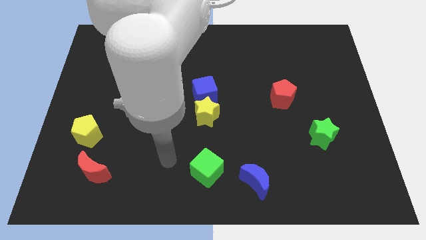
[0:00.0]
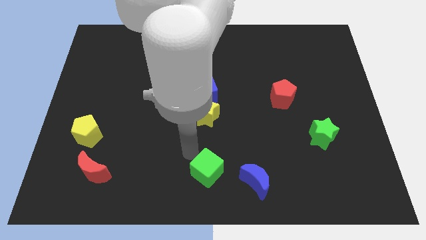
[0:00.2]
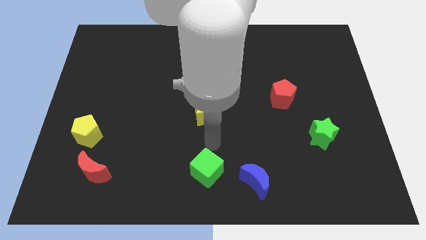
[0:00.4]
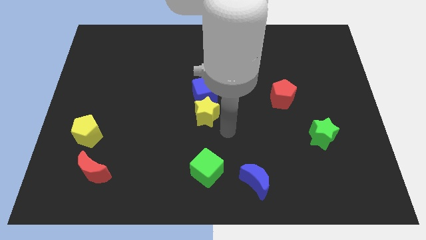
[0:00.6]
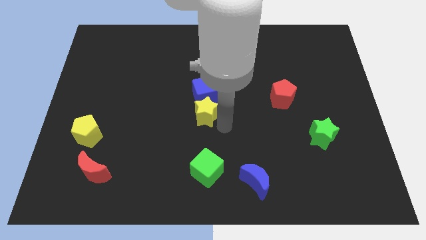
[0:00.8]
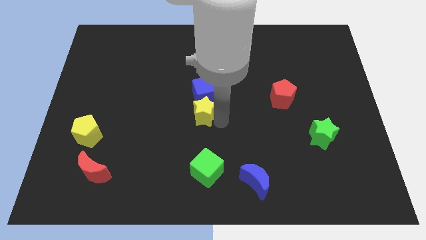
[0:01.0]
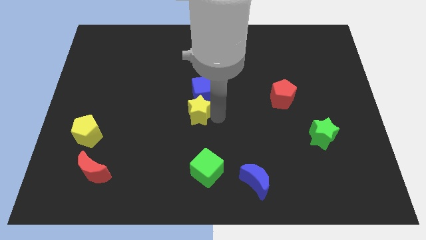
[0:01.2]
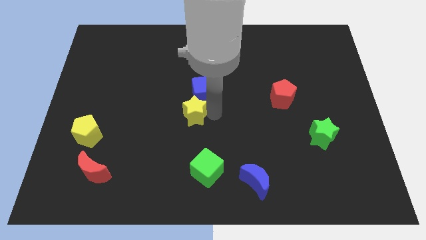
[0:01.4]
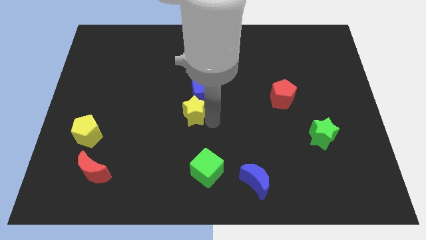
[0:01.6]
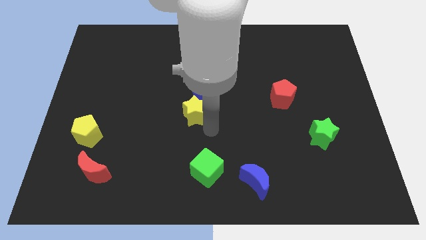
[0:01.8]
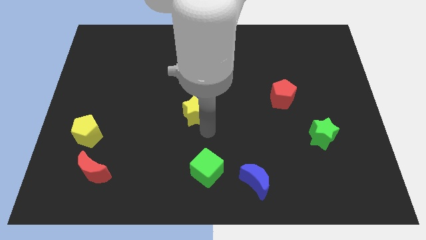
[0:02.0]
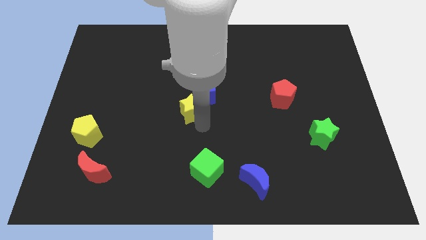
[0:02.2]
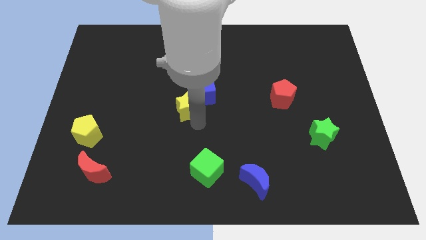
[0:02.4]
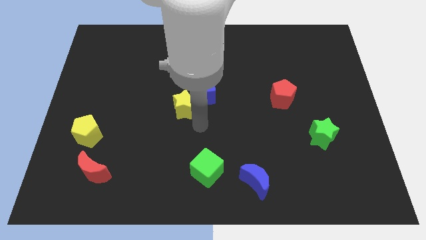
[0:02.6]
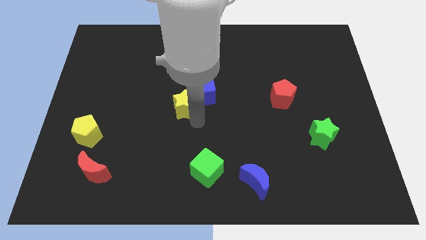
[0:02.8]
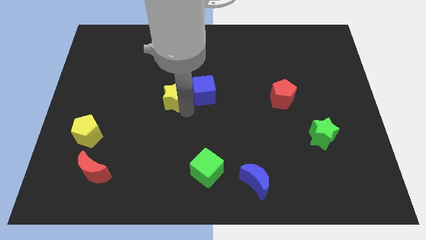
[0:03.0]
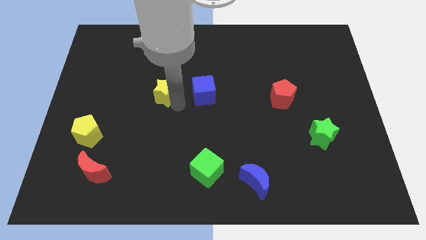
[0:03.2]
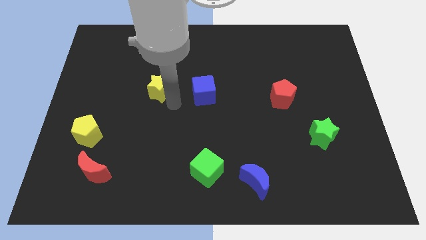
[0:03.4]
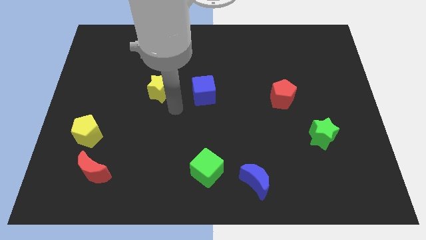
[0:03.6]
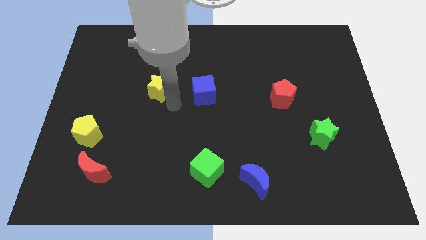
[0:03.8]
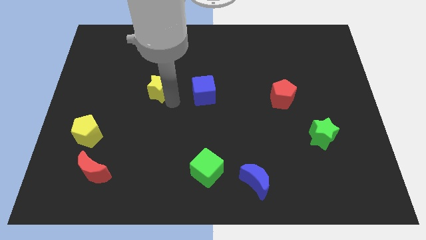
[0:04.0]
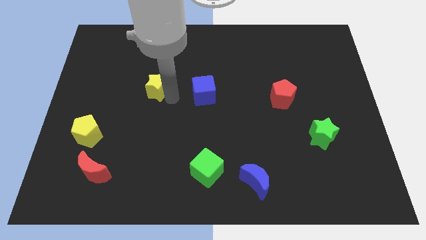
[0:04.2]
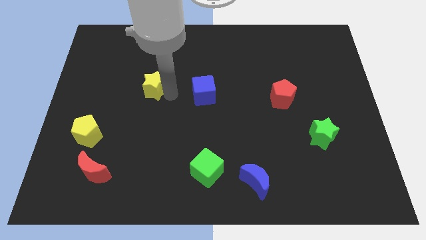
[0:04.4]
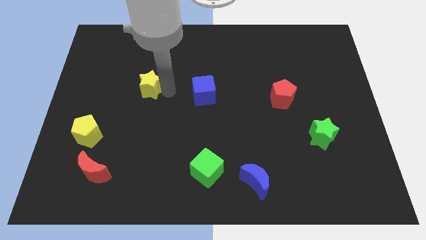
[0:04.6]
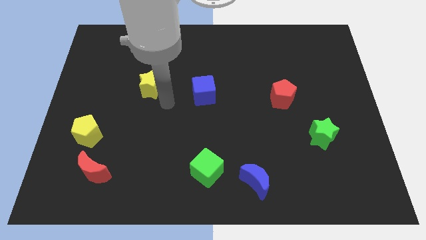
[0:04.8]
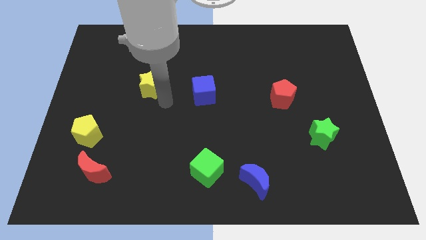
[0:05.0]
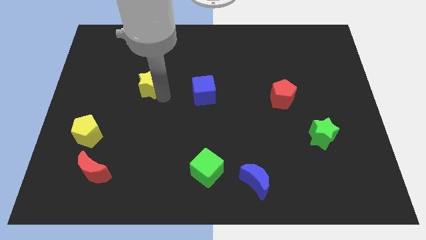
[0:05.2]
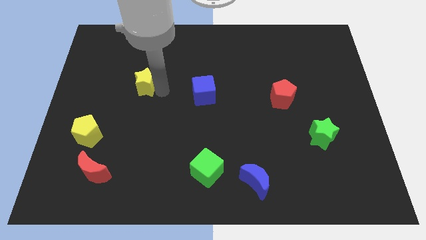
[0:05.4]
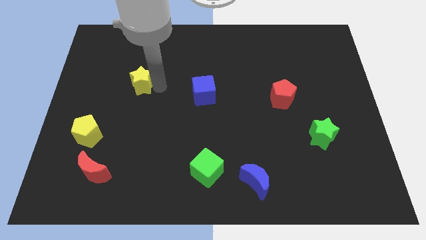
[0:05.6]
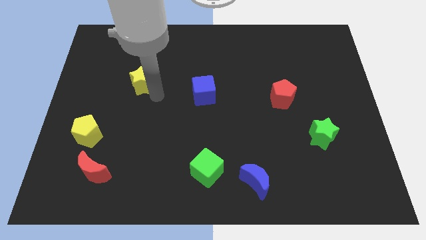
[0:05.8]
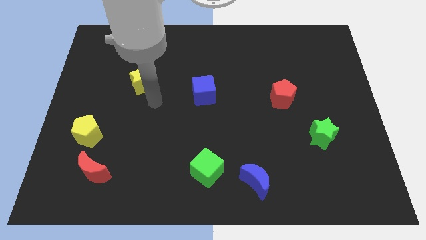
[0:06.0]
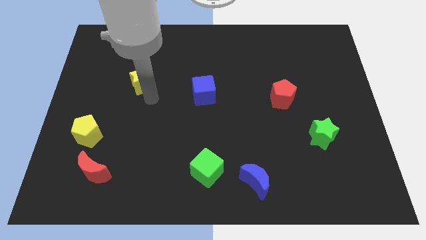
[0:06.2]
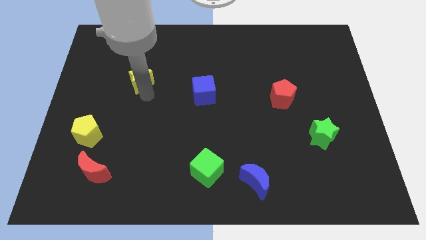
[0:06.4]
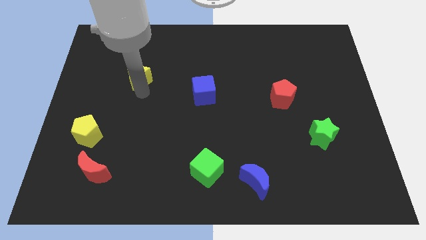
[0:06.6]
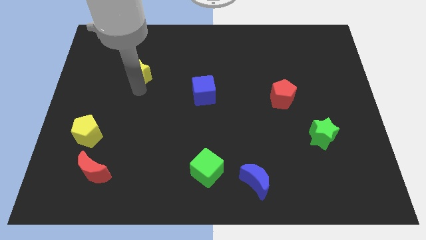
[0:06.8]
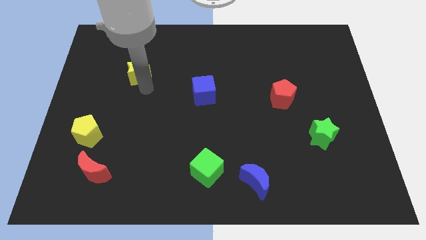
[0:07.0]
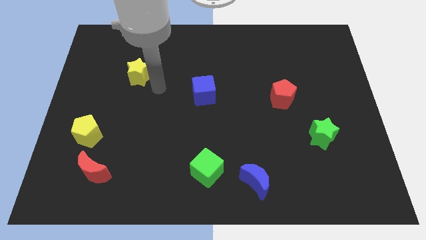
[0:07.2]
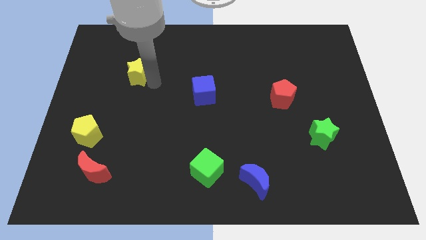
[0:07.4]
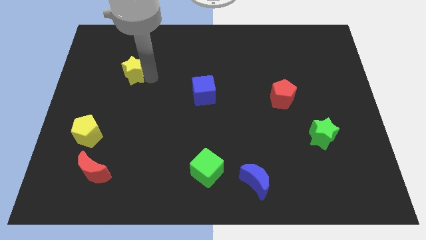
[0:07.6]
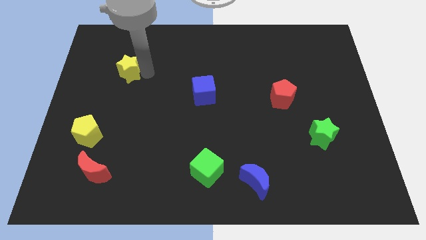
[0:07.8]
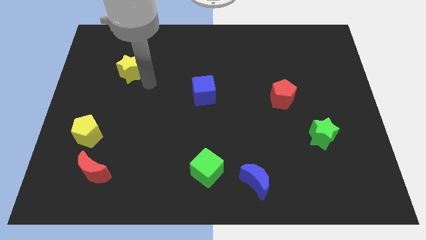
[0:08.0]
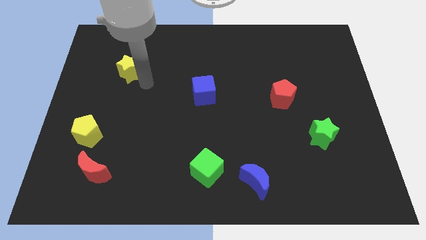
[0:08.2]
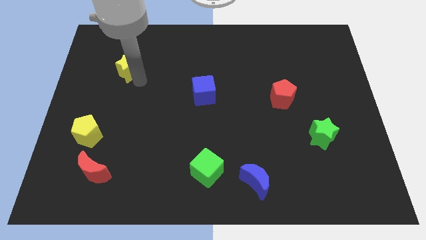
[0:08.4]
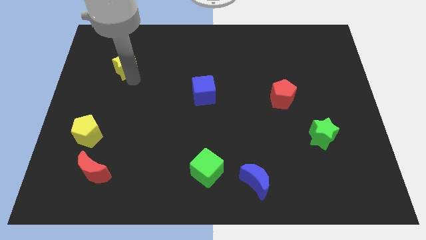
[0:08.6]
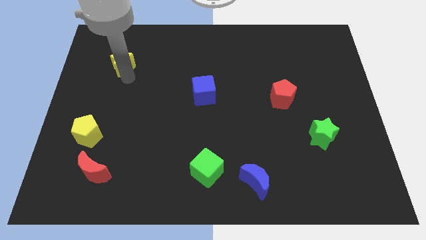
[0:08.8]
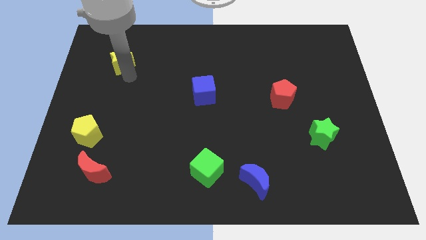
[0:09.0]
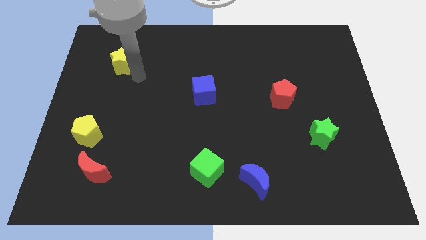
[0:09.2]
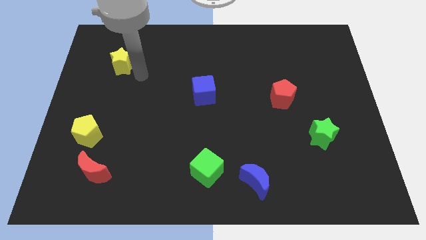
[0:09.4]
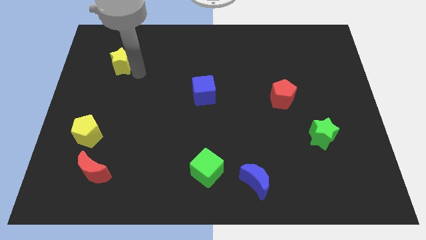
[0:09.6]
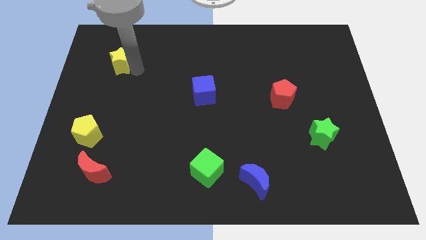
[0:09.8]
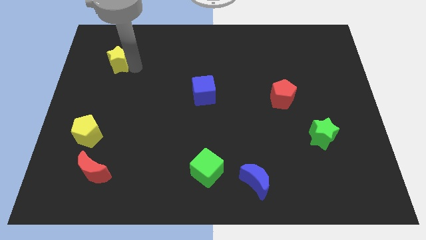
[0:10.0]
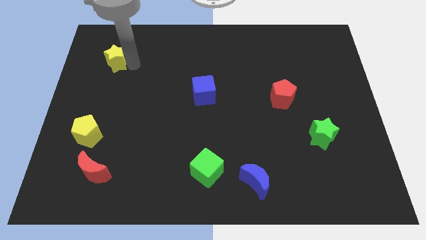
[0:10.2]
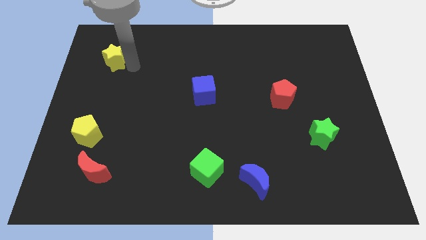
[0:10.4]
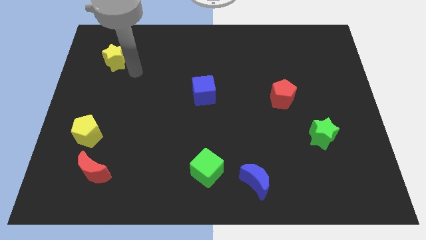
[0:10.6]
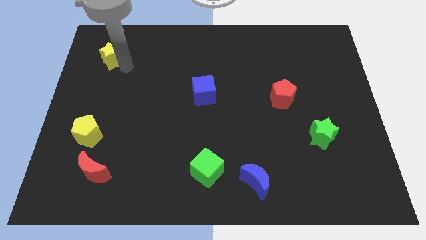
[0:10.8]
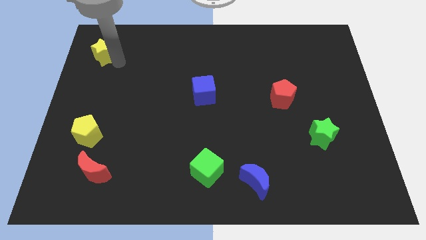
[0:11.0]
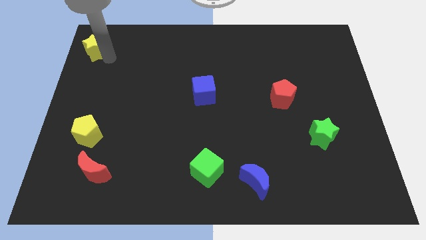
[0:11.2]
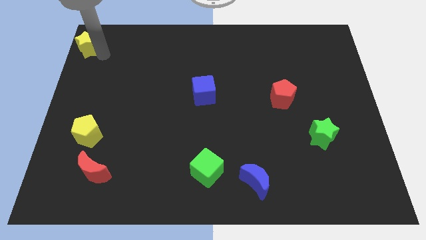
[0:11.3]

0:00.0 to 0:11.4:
move the yellow star to the upper left corner

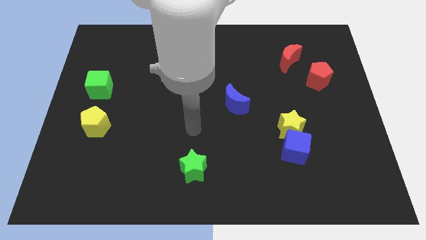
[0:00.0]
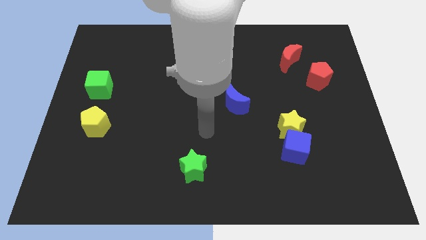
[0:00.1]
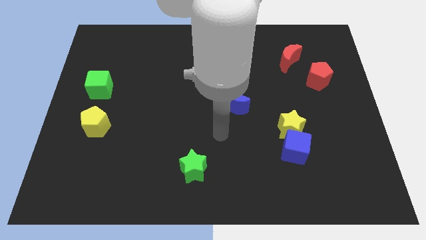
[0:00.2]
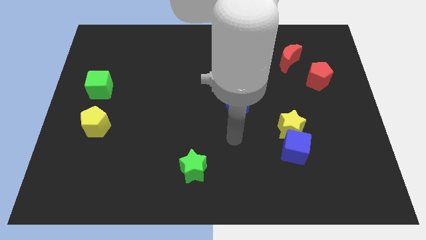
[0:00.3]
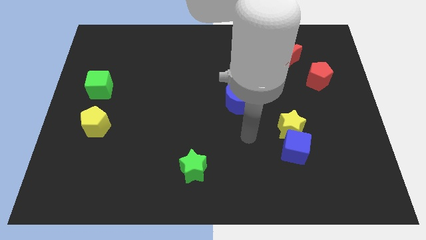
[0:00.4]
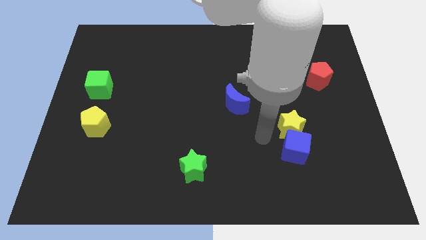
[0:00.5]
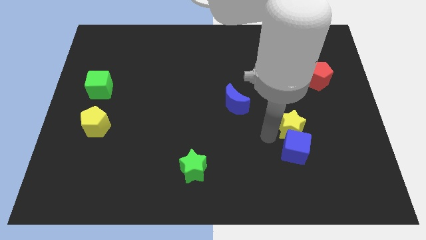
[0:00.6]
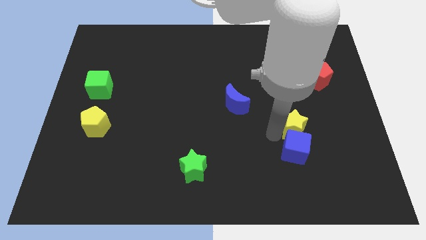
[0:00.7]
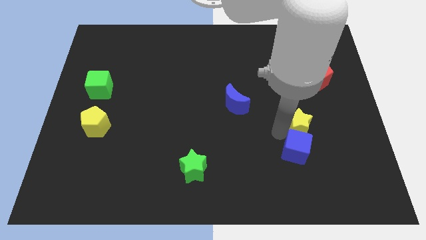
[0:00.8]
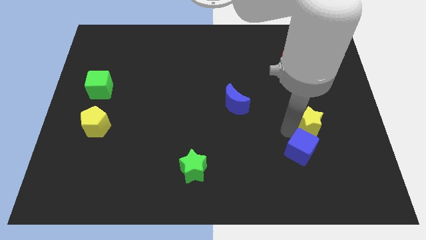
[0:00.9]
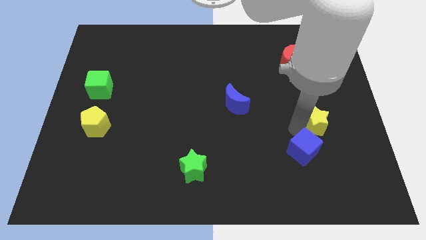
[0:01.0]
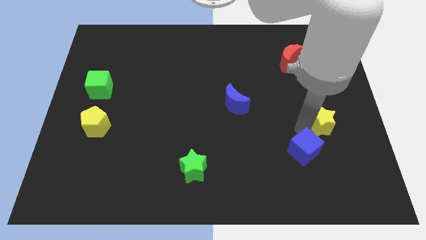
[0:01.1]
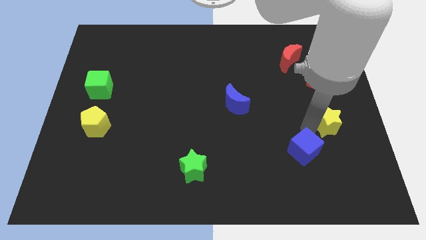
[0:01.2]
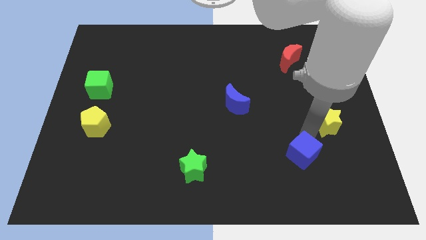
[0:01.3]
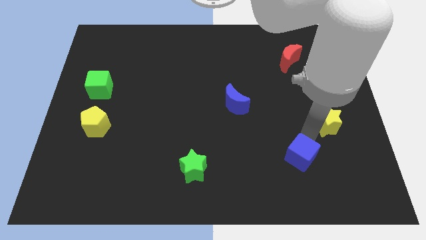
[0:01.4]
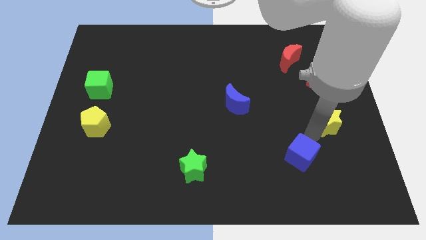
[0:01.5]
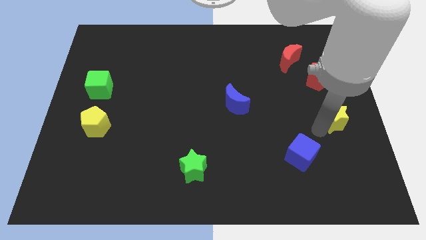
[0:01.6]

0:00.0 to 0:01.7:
put the yellow star to the center right

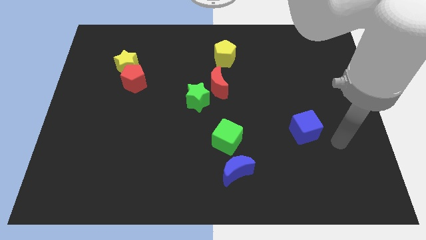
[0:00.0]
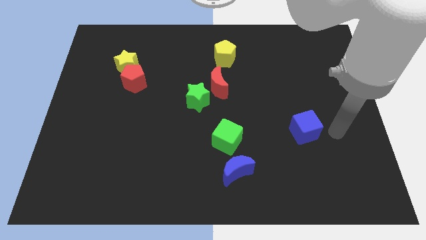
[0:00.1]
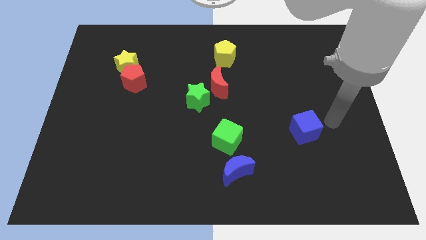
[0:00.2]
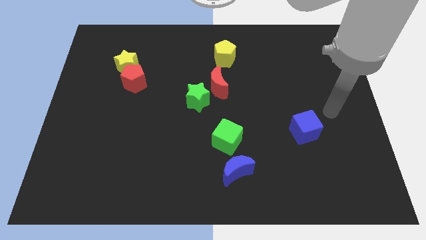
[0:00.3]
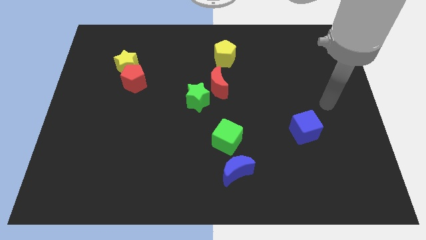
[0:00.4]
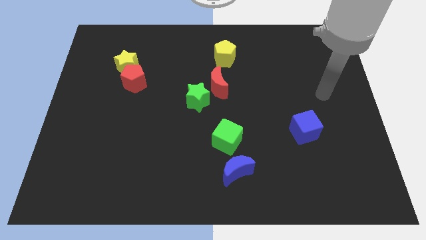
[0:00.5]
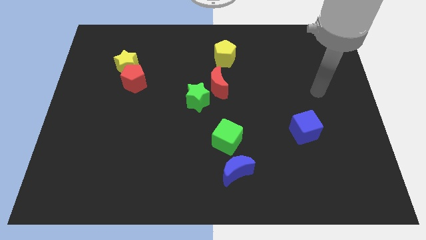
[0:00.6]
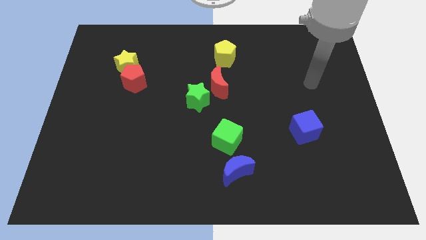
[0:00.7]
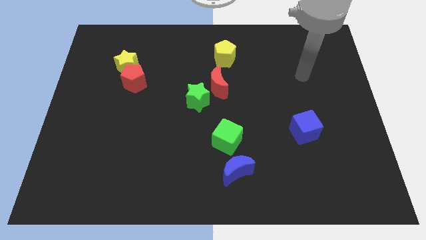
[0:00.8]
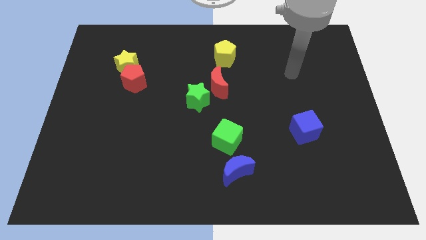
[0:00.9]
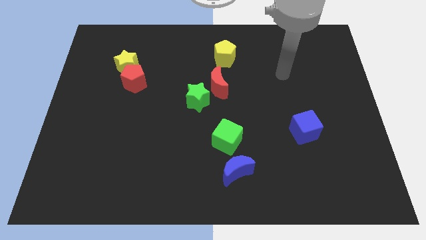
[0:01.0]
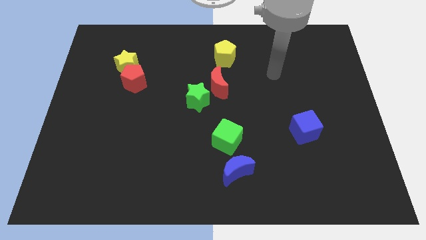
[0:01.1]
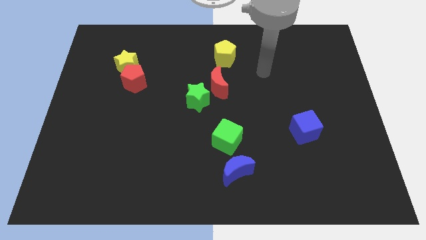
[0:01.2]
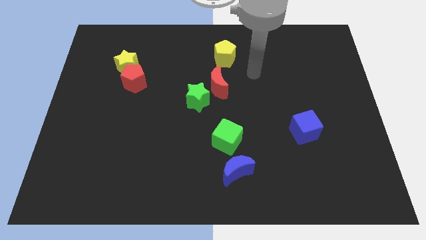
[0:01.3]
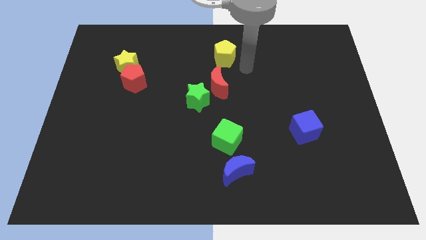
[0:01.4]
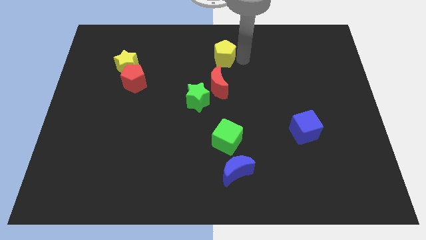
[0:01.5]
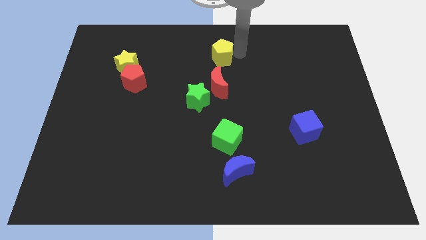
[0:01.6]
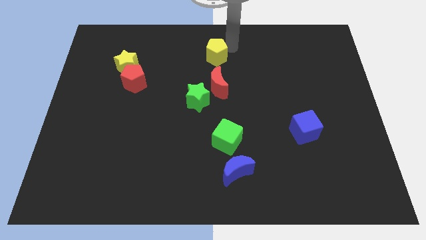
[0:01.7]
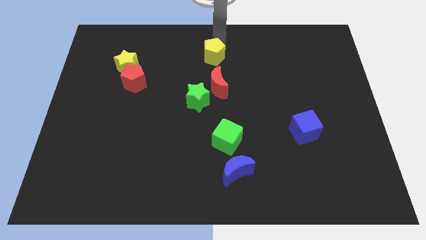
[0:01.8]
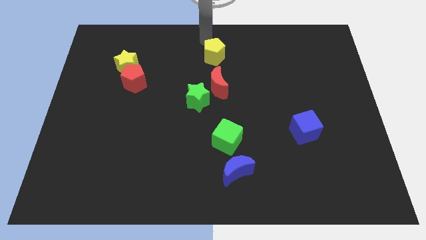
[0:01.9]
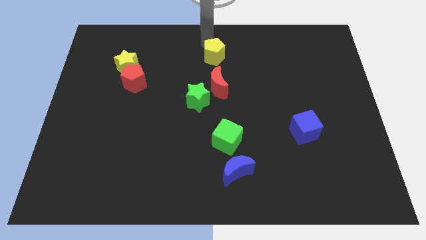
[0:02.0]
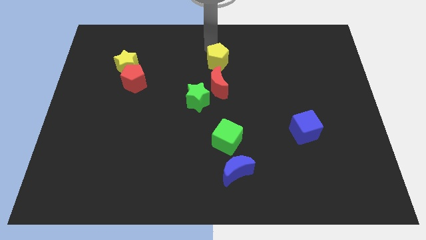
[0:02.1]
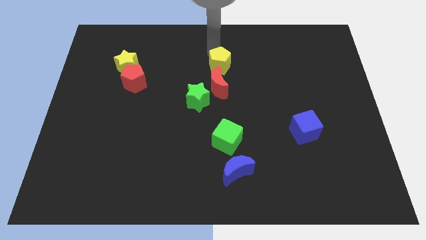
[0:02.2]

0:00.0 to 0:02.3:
push the yellow pentagon to the center
